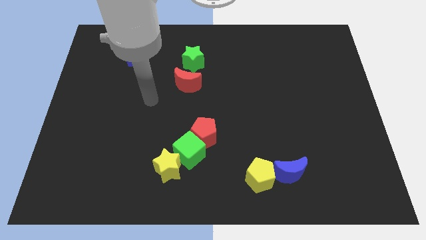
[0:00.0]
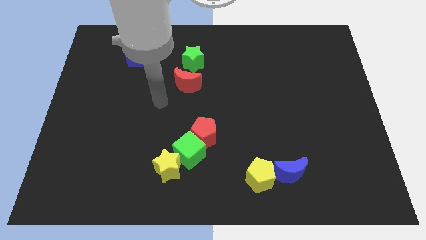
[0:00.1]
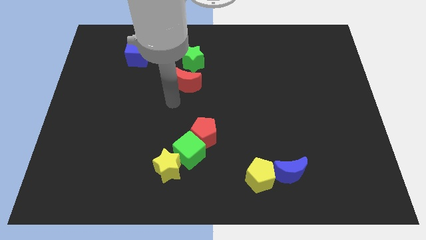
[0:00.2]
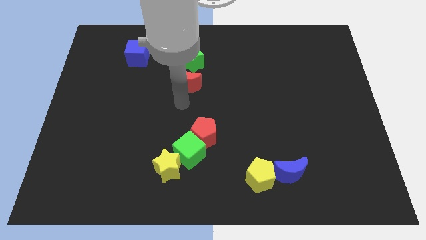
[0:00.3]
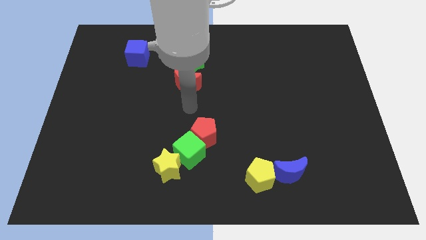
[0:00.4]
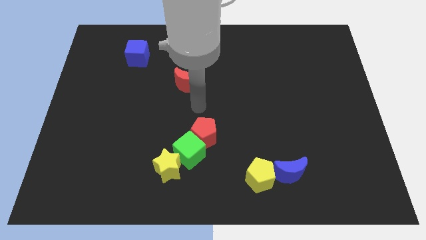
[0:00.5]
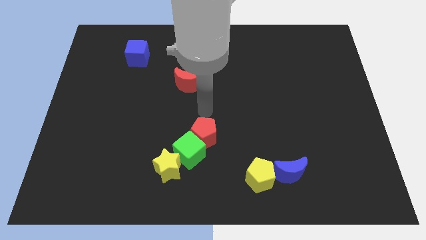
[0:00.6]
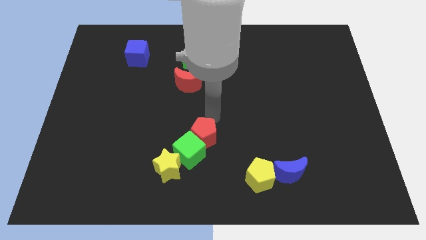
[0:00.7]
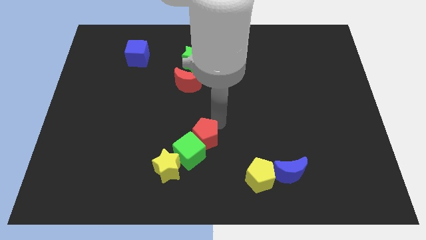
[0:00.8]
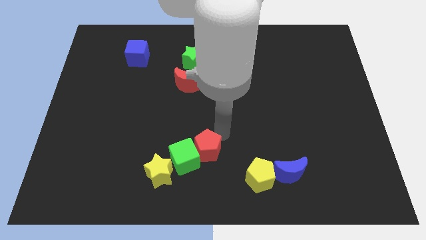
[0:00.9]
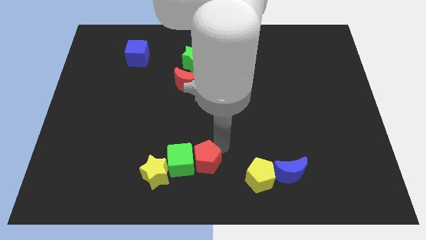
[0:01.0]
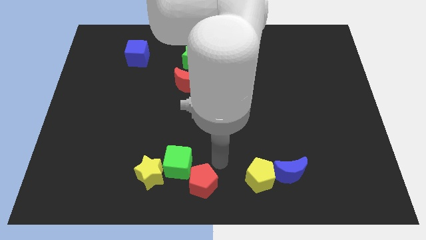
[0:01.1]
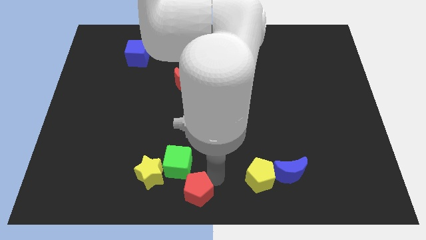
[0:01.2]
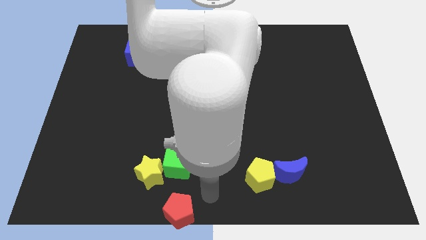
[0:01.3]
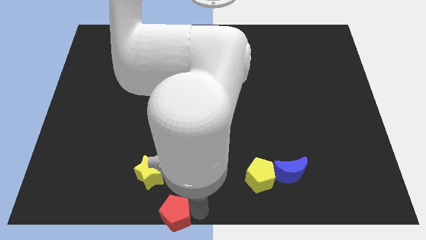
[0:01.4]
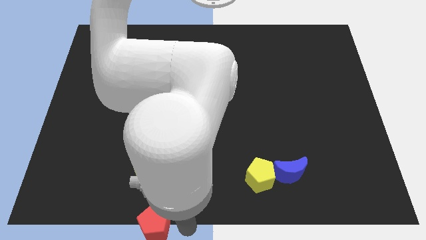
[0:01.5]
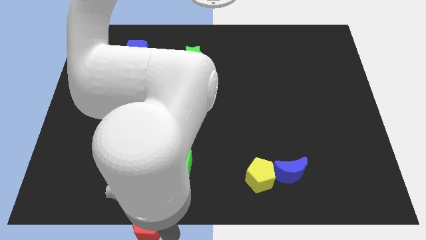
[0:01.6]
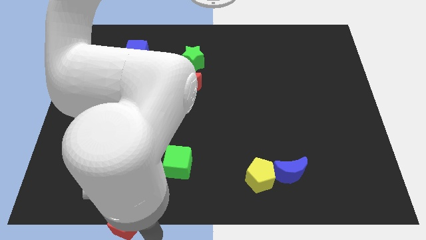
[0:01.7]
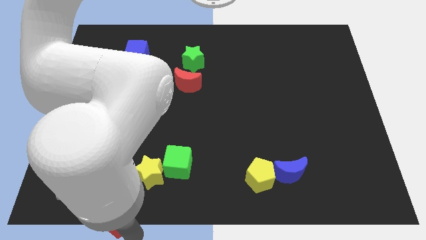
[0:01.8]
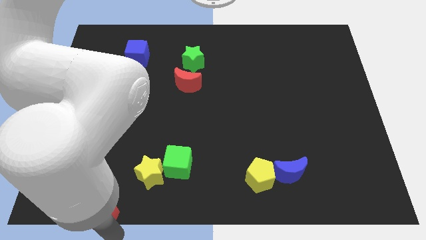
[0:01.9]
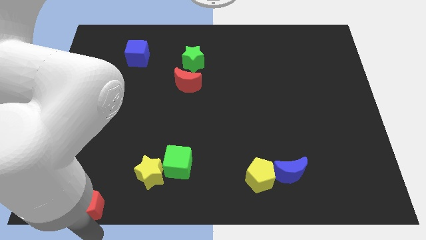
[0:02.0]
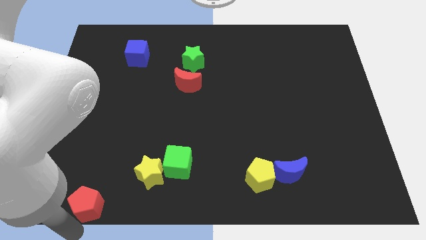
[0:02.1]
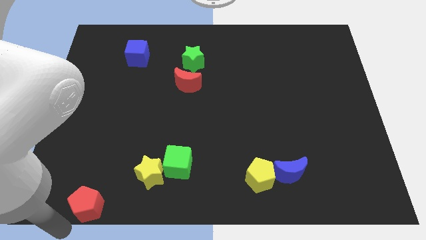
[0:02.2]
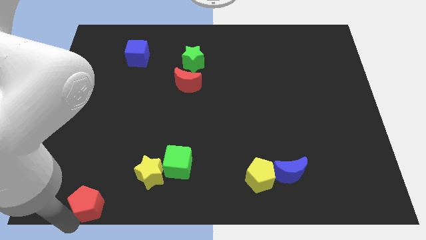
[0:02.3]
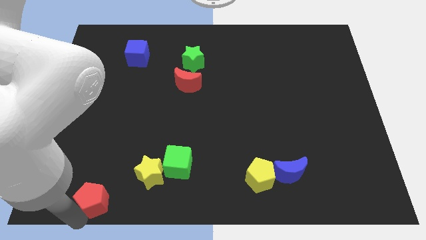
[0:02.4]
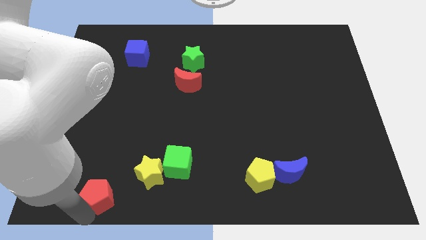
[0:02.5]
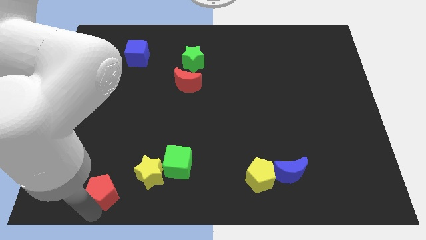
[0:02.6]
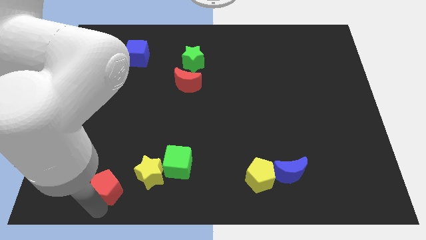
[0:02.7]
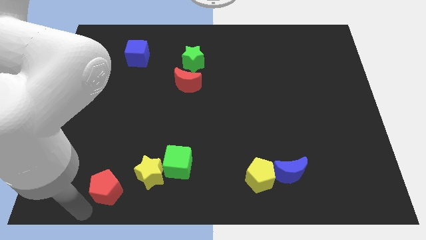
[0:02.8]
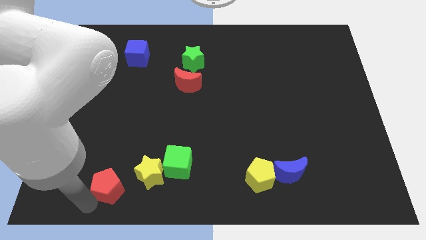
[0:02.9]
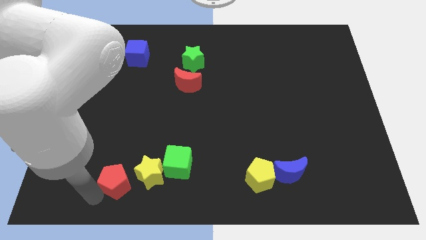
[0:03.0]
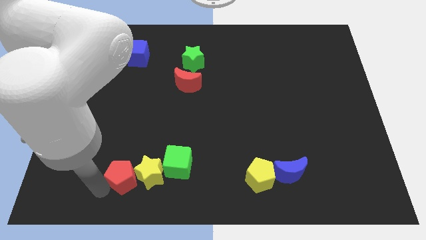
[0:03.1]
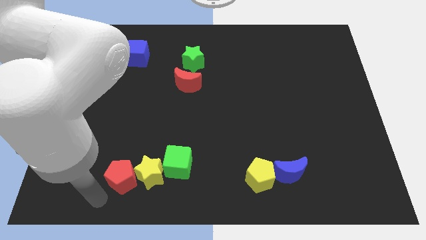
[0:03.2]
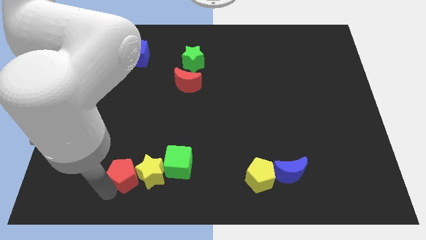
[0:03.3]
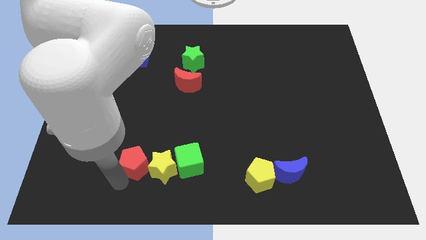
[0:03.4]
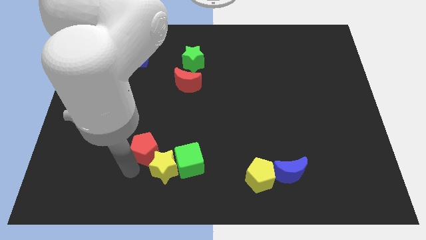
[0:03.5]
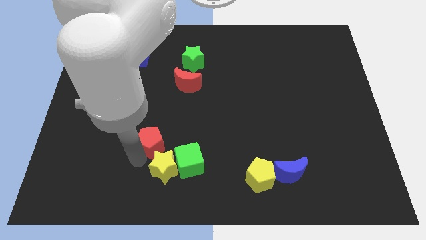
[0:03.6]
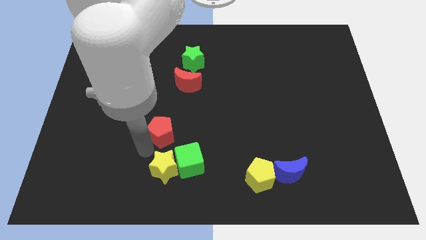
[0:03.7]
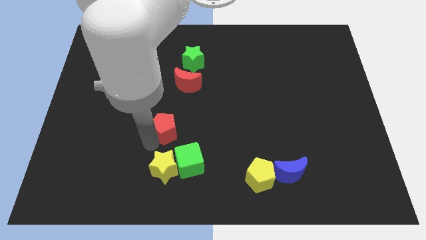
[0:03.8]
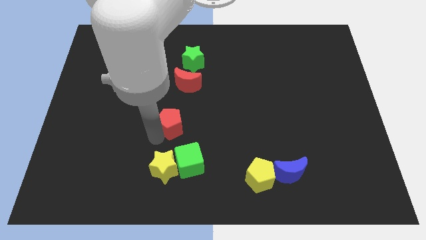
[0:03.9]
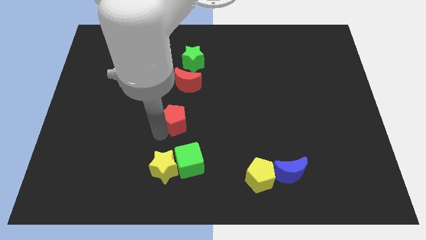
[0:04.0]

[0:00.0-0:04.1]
slightly slide the red pentagon up and then left

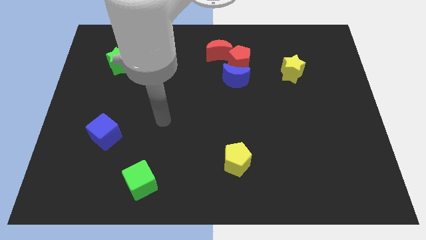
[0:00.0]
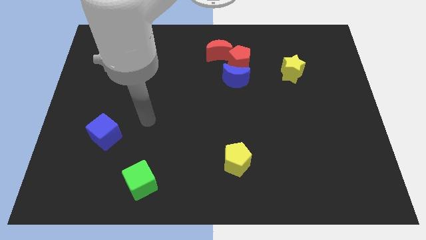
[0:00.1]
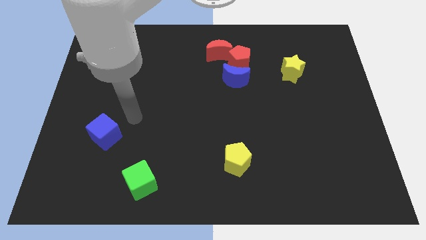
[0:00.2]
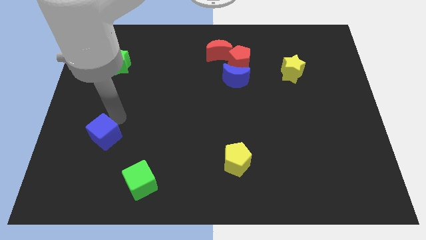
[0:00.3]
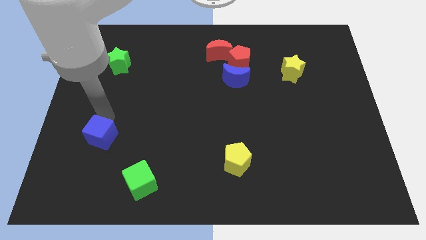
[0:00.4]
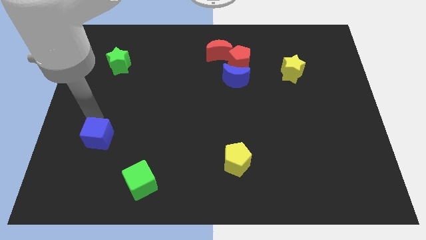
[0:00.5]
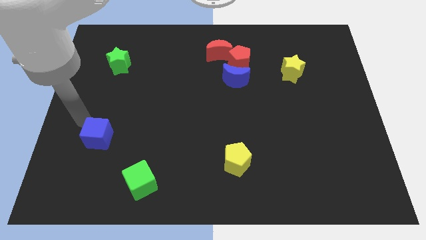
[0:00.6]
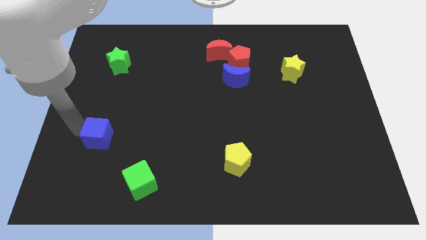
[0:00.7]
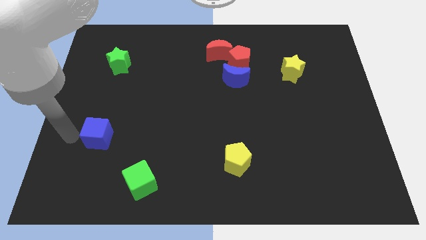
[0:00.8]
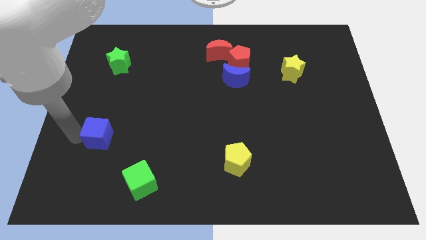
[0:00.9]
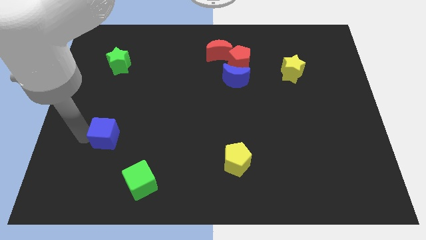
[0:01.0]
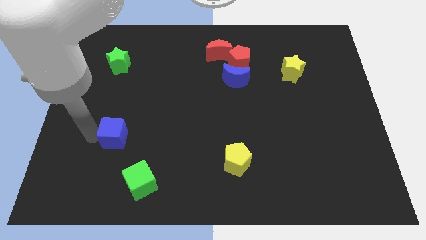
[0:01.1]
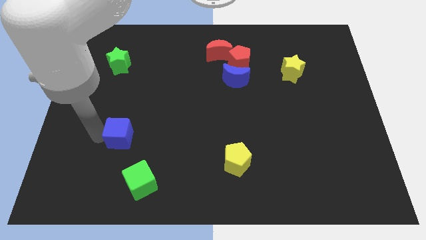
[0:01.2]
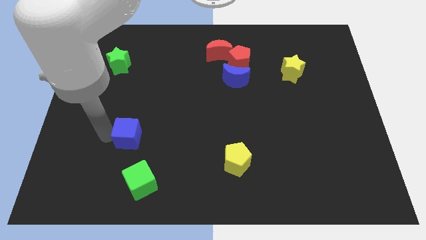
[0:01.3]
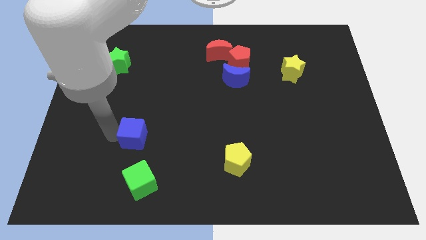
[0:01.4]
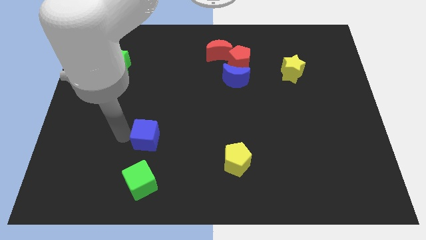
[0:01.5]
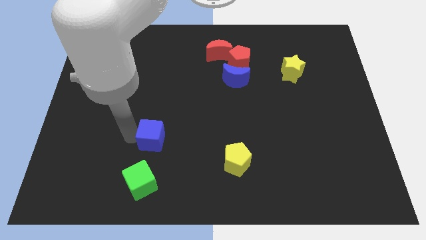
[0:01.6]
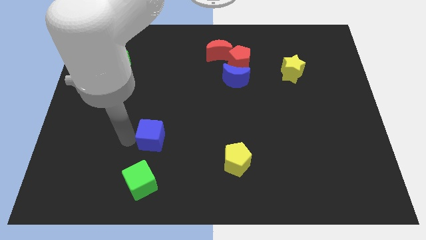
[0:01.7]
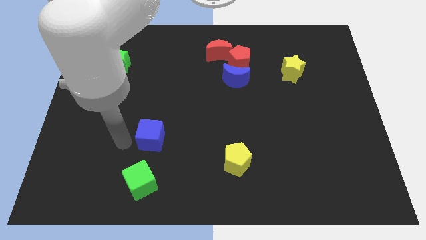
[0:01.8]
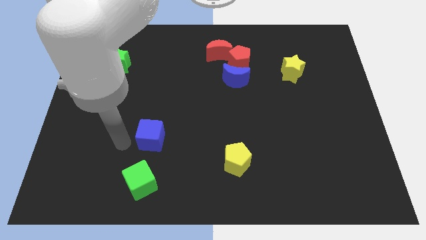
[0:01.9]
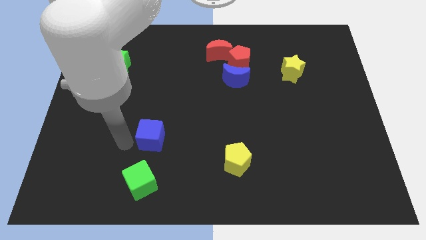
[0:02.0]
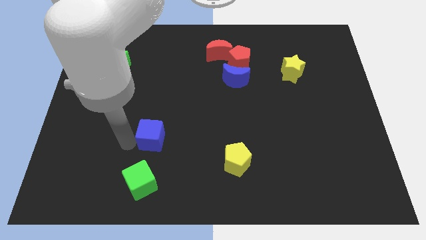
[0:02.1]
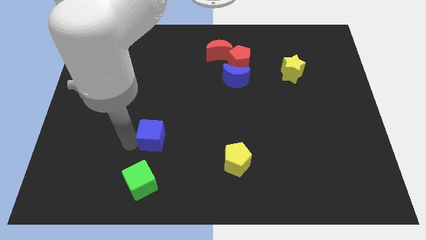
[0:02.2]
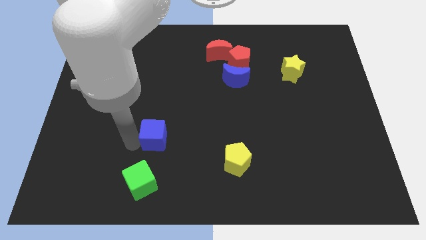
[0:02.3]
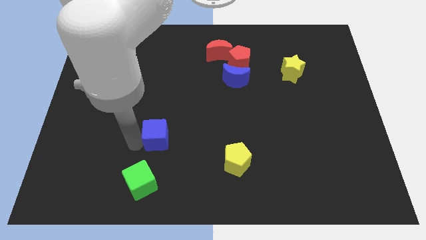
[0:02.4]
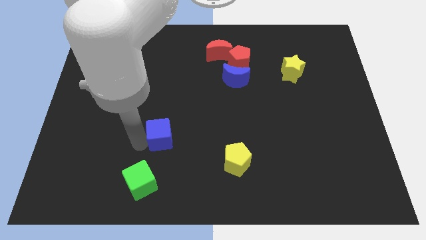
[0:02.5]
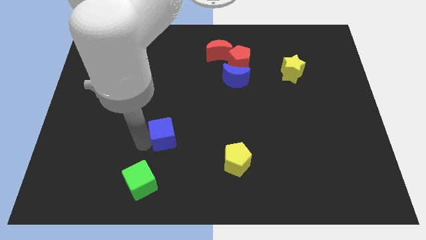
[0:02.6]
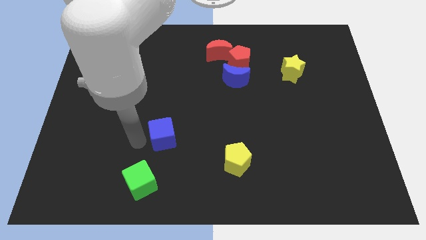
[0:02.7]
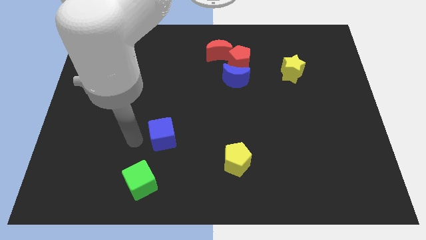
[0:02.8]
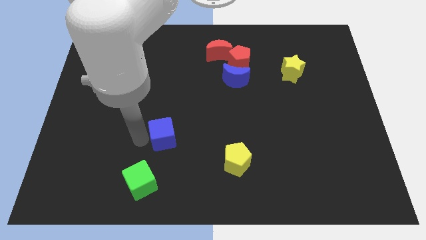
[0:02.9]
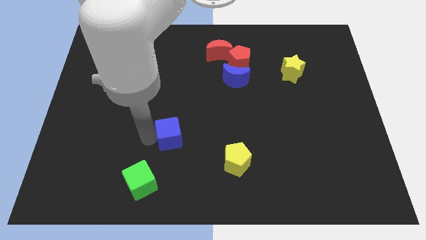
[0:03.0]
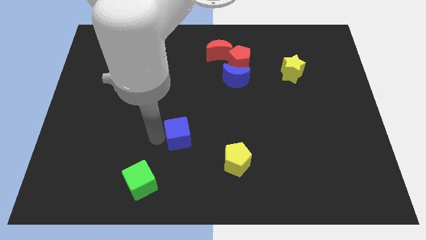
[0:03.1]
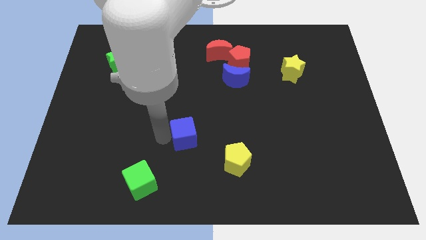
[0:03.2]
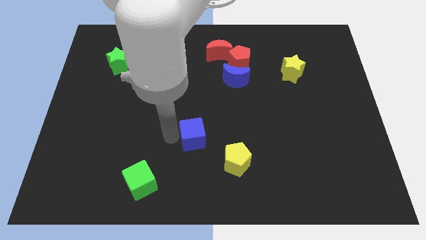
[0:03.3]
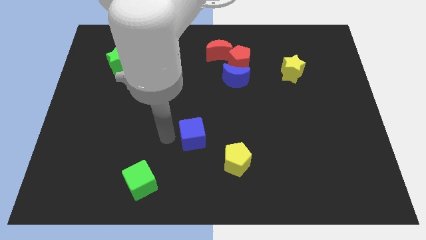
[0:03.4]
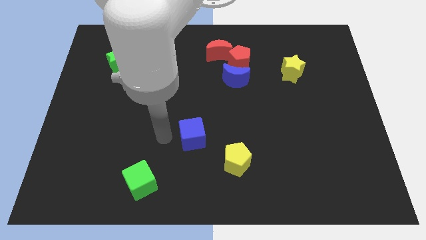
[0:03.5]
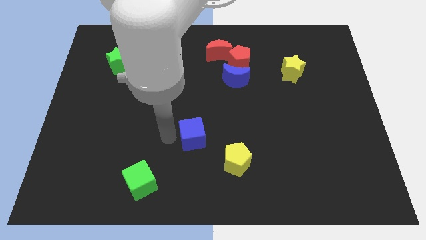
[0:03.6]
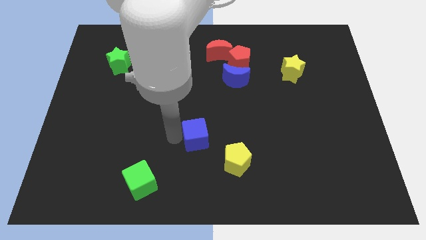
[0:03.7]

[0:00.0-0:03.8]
move the blue cube to the right
